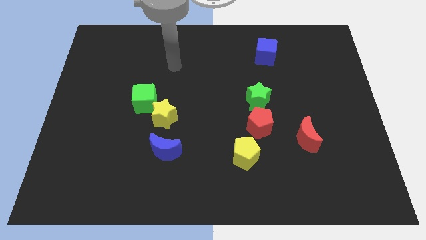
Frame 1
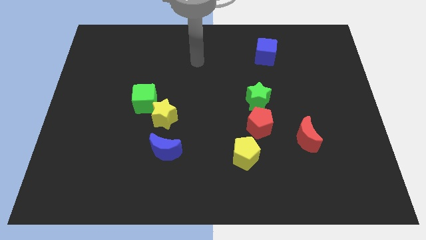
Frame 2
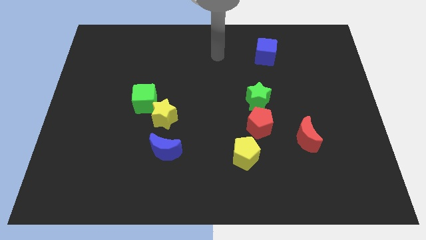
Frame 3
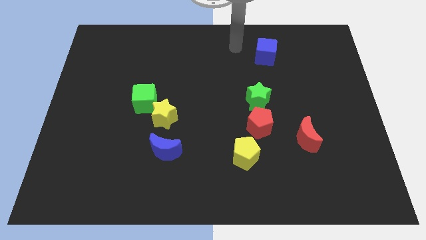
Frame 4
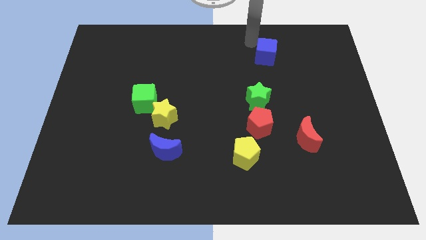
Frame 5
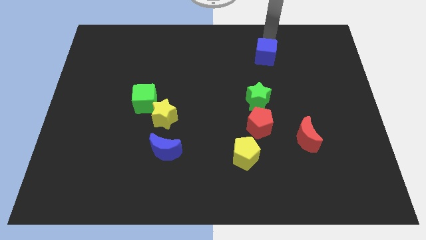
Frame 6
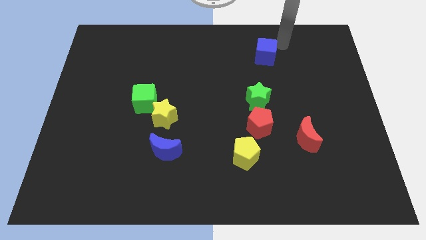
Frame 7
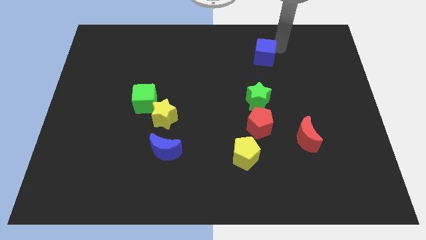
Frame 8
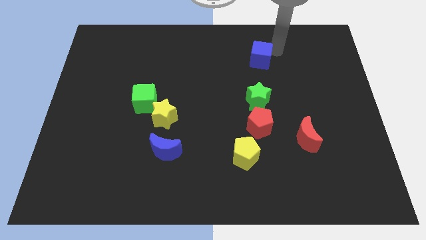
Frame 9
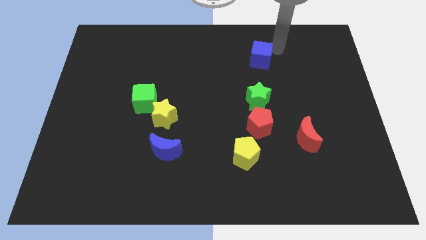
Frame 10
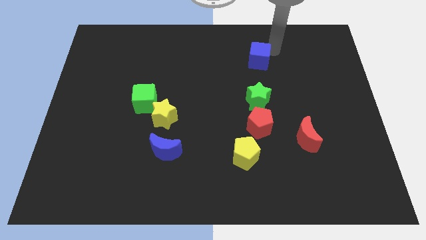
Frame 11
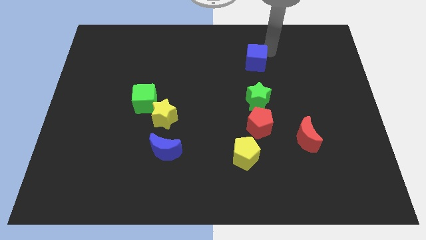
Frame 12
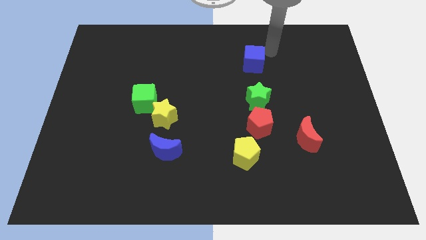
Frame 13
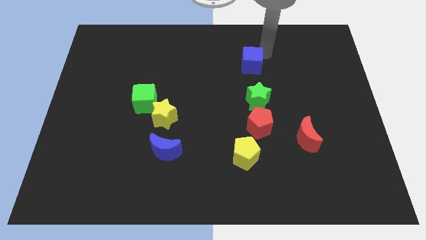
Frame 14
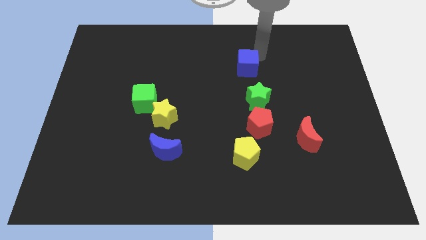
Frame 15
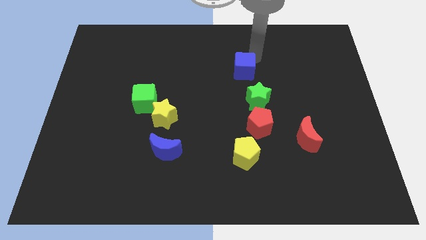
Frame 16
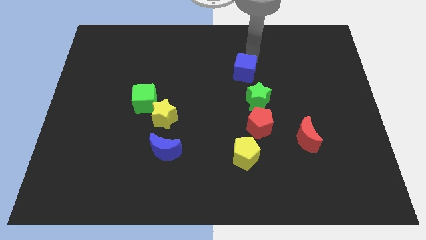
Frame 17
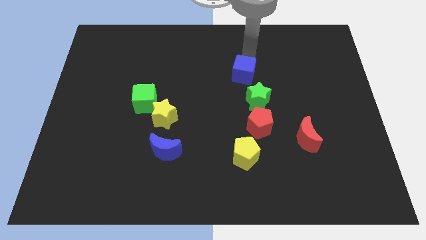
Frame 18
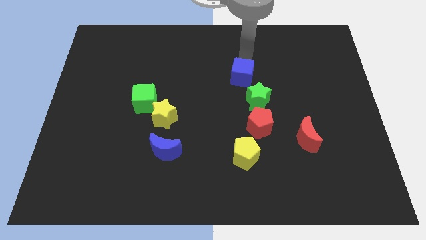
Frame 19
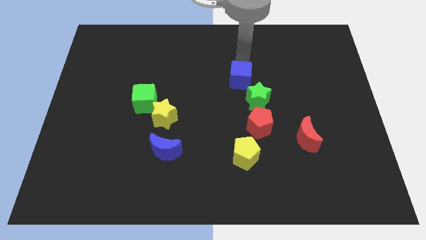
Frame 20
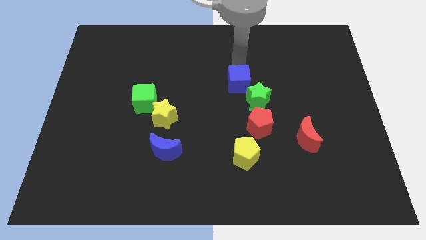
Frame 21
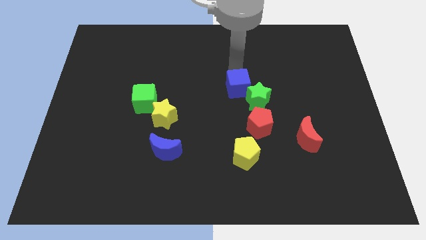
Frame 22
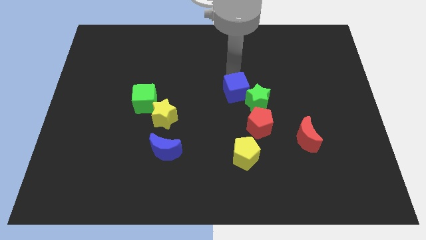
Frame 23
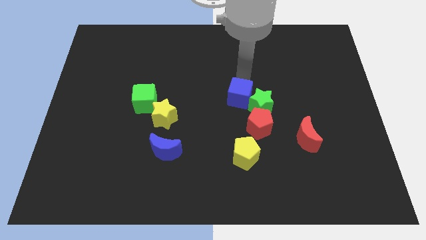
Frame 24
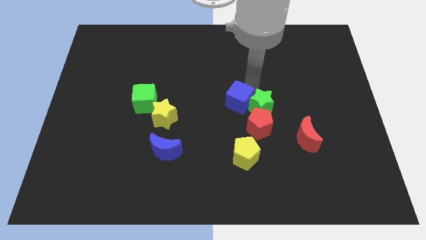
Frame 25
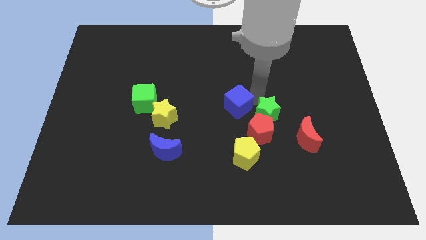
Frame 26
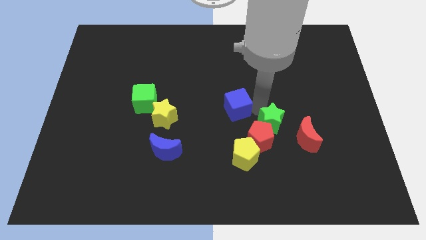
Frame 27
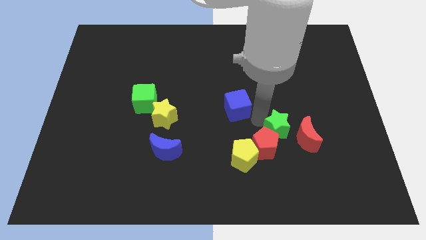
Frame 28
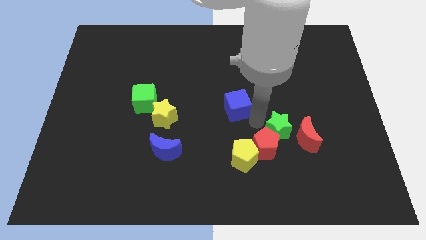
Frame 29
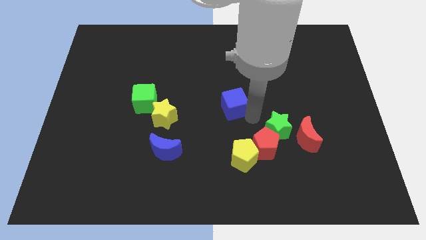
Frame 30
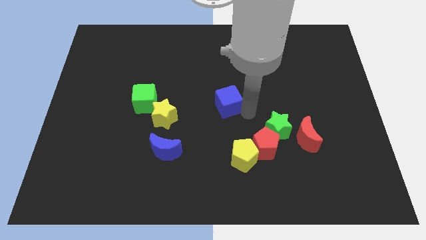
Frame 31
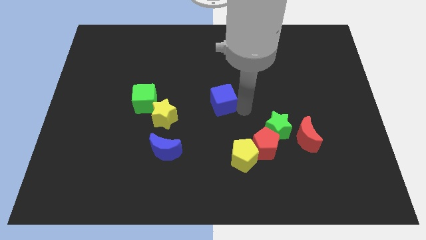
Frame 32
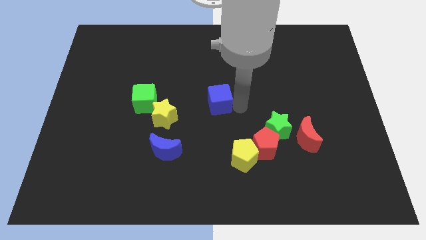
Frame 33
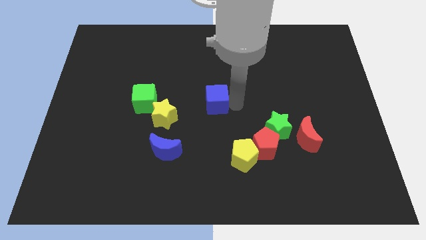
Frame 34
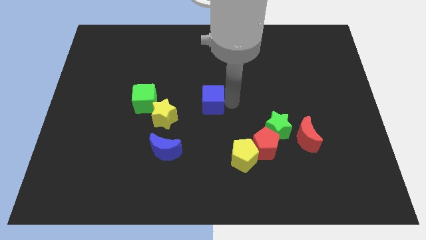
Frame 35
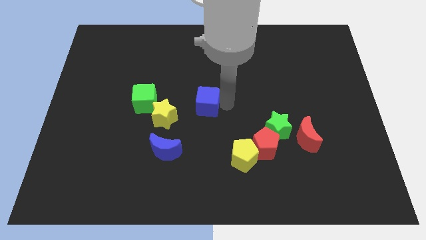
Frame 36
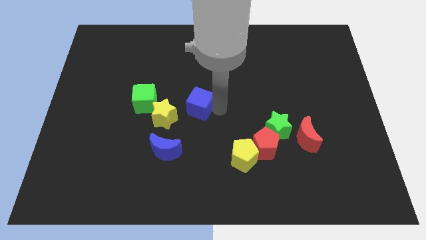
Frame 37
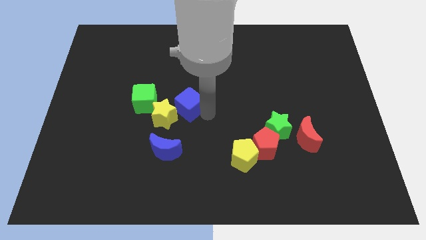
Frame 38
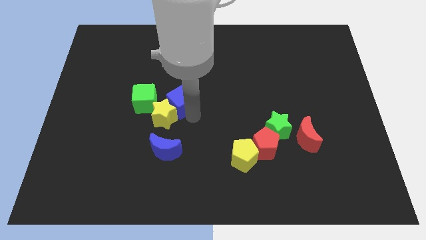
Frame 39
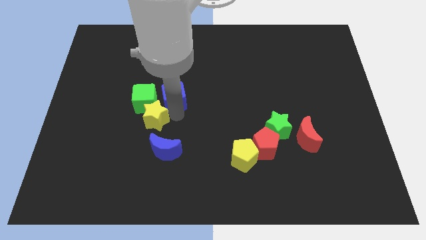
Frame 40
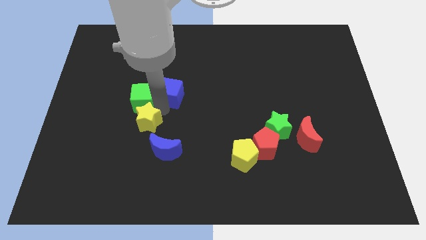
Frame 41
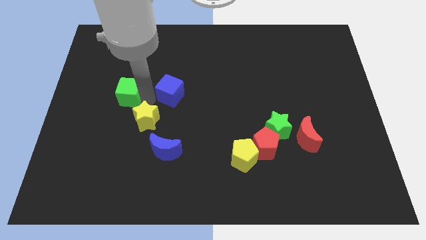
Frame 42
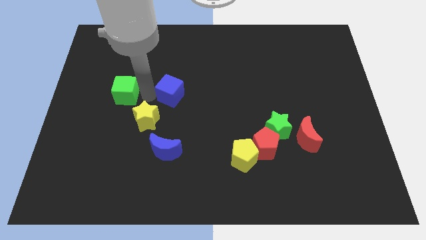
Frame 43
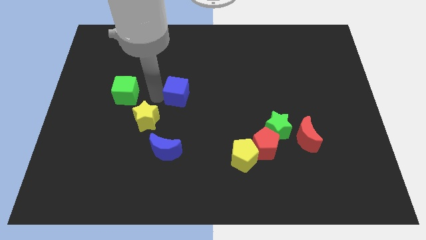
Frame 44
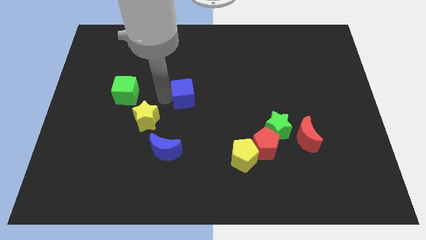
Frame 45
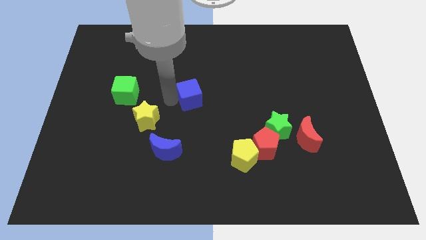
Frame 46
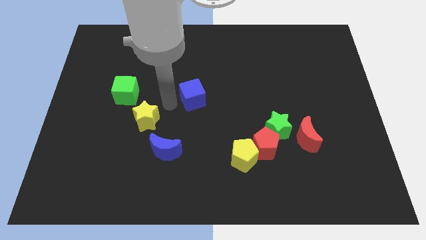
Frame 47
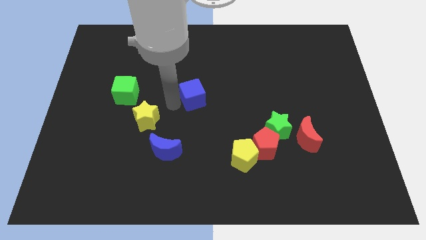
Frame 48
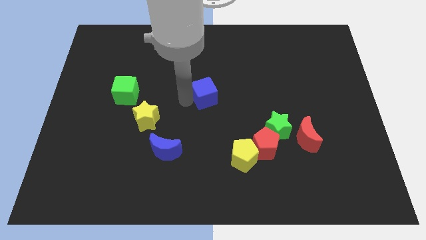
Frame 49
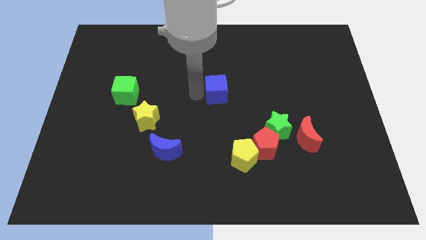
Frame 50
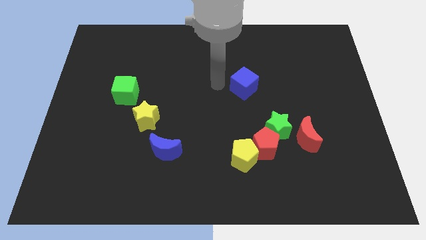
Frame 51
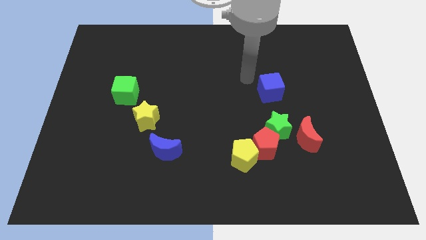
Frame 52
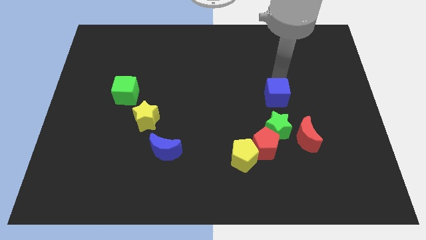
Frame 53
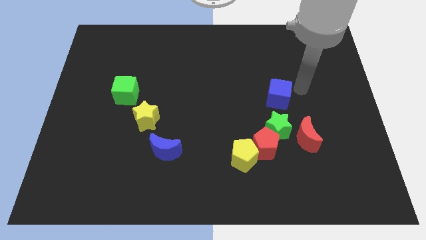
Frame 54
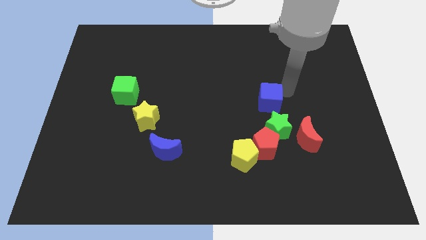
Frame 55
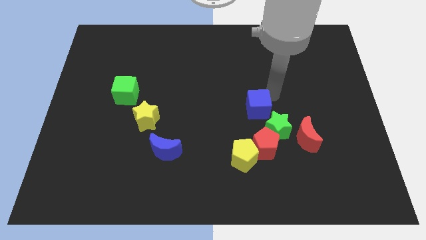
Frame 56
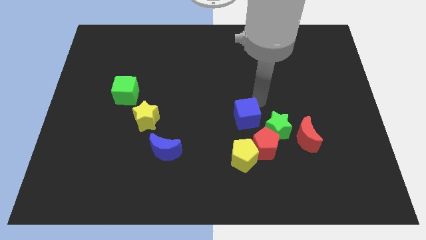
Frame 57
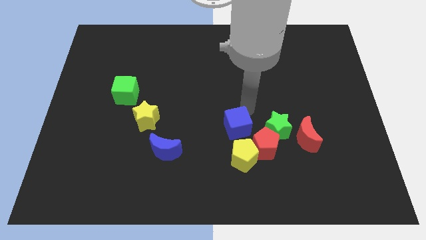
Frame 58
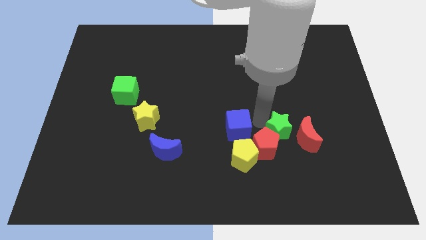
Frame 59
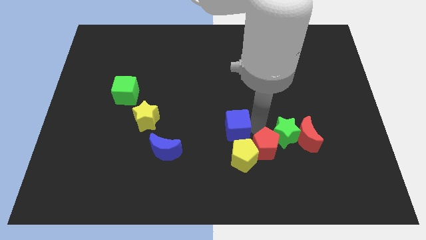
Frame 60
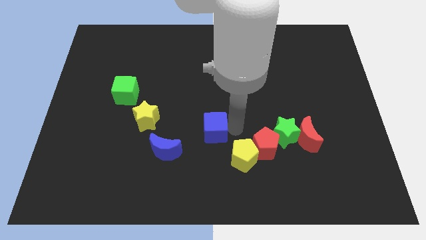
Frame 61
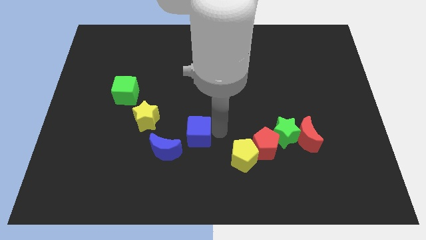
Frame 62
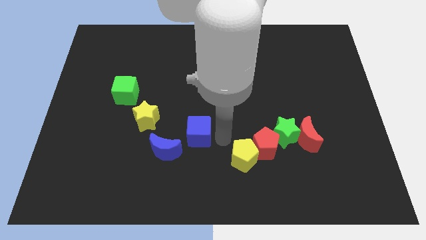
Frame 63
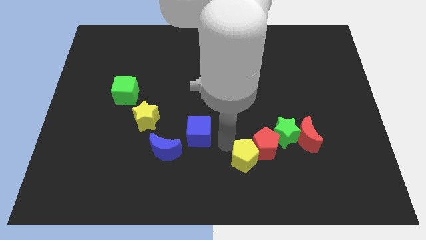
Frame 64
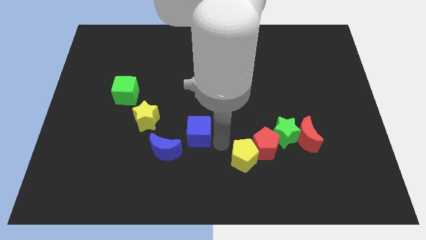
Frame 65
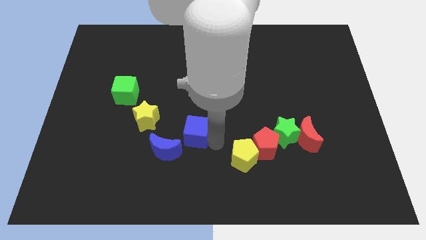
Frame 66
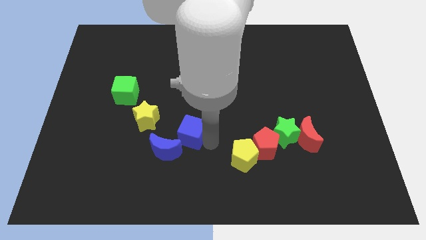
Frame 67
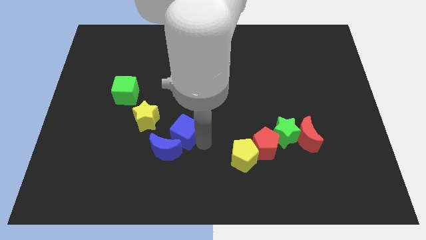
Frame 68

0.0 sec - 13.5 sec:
put the blue cube next to the blue moon
